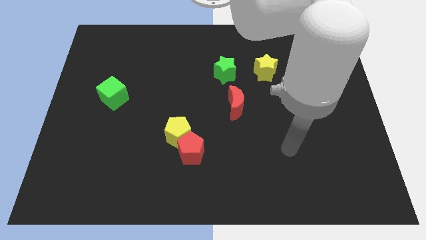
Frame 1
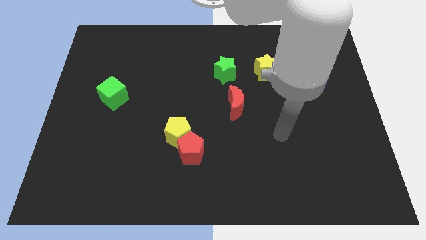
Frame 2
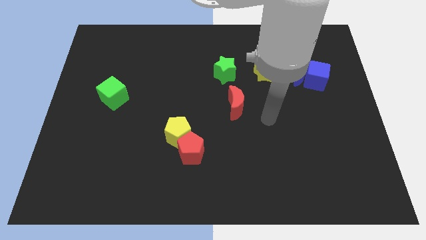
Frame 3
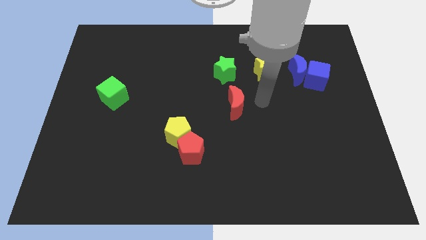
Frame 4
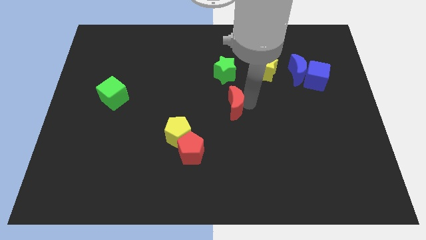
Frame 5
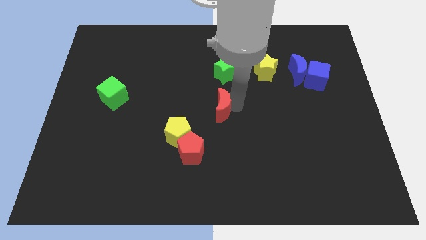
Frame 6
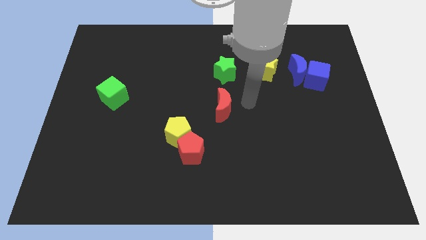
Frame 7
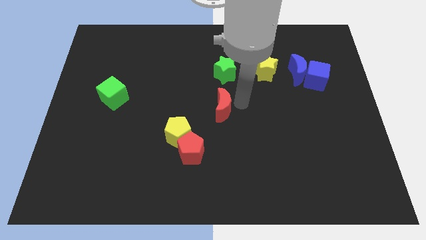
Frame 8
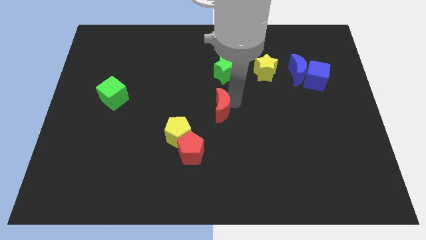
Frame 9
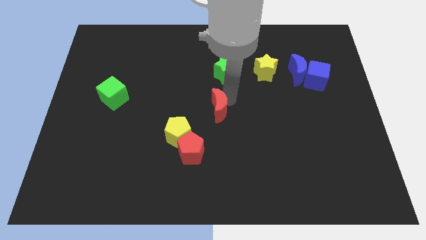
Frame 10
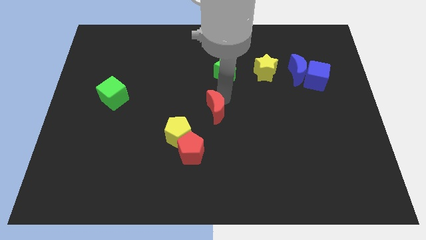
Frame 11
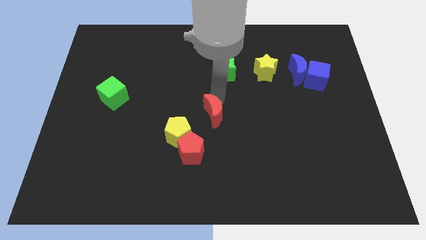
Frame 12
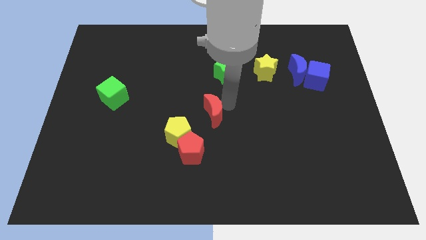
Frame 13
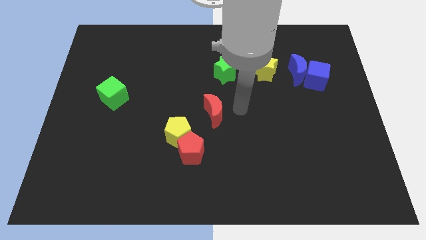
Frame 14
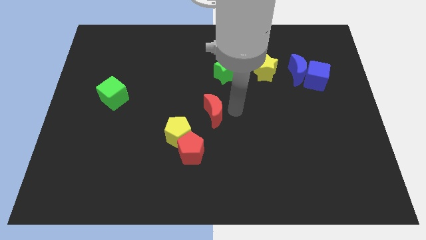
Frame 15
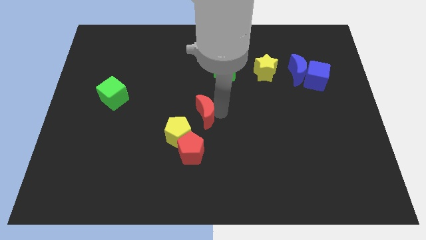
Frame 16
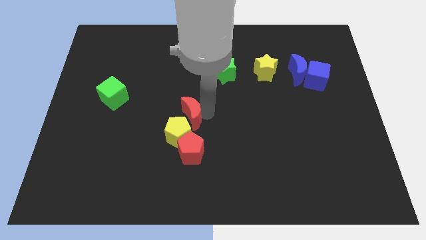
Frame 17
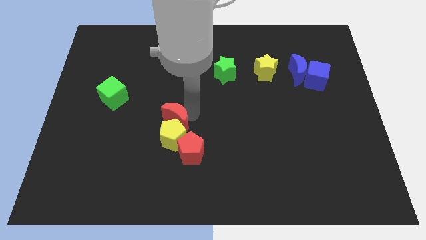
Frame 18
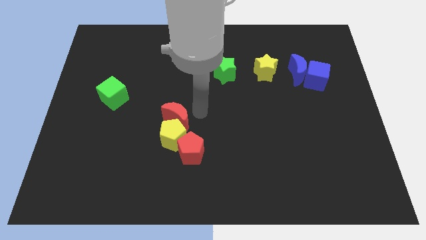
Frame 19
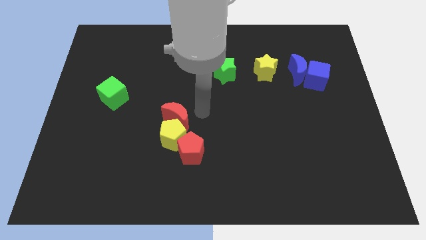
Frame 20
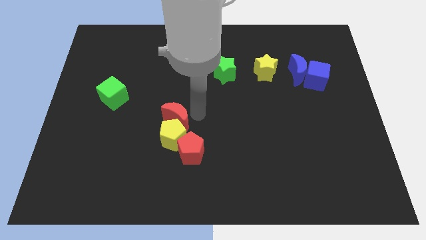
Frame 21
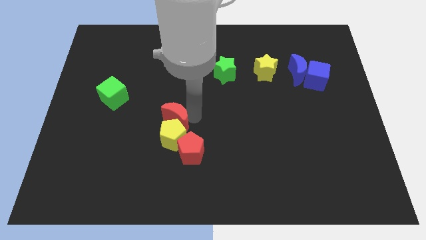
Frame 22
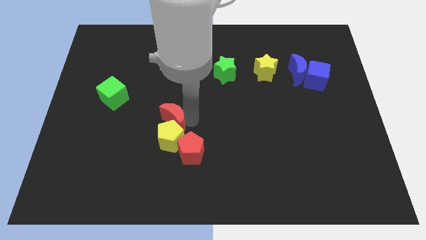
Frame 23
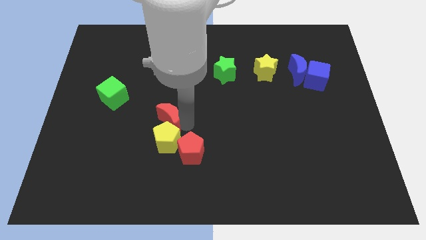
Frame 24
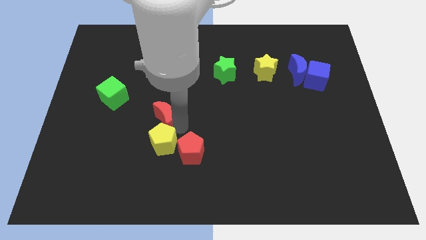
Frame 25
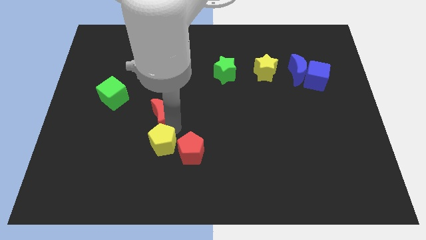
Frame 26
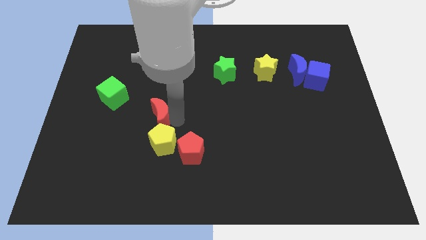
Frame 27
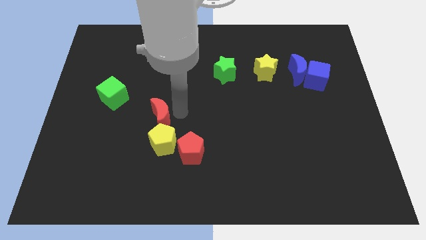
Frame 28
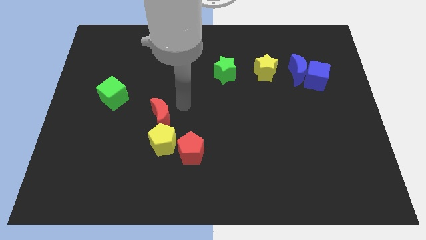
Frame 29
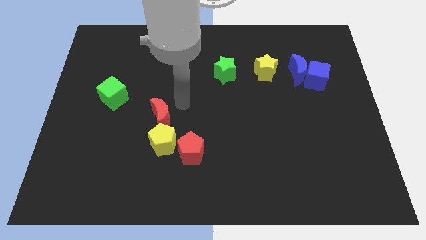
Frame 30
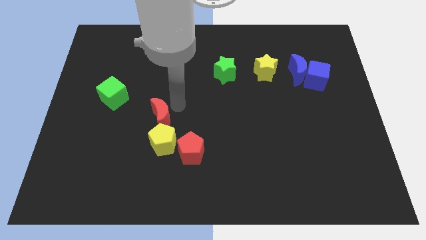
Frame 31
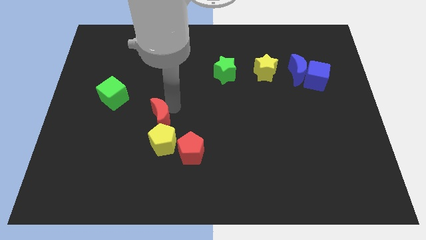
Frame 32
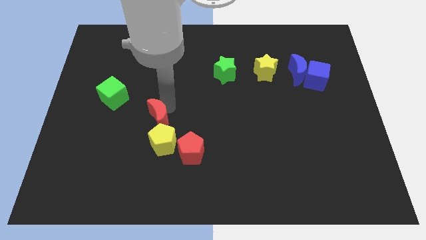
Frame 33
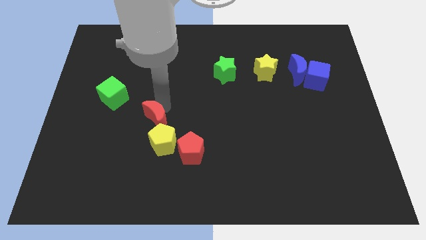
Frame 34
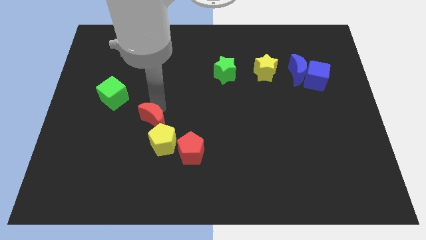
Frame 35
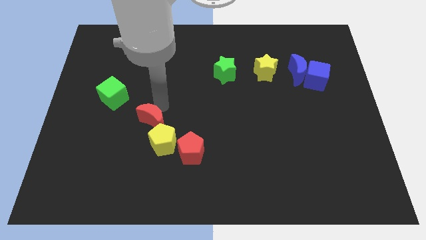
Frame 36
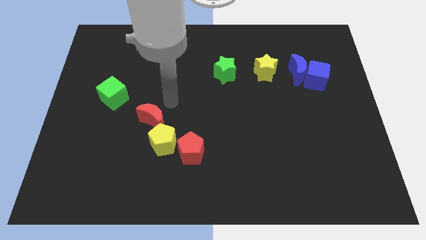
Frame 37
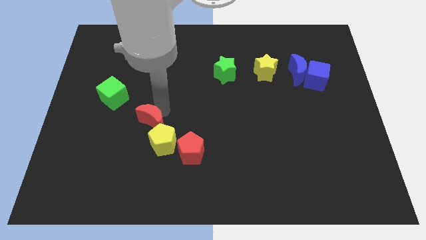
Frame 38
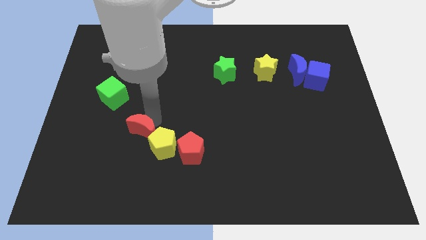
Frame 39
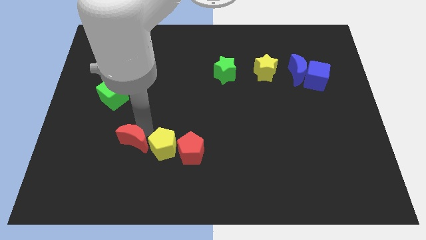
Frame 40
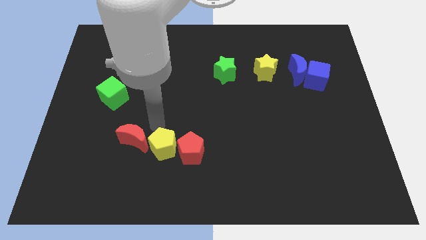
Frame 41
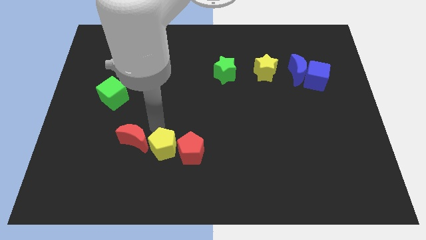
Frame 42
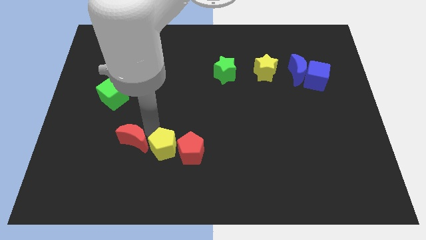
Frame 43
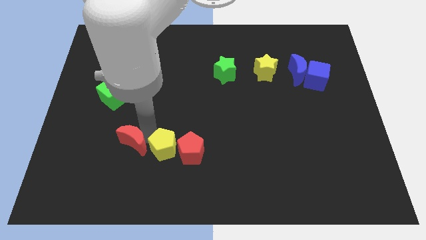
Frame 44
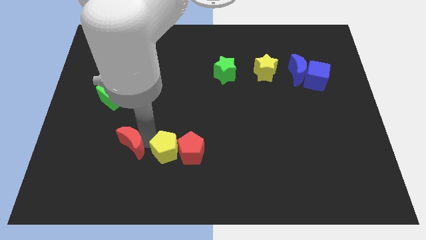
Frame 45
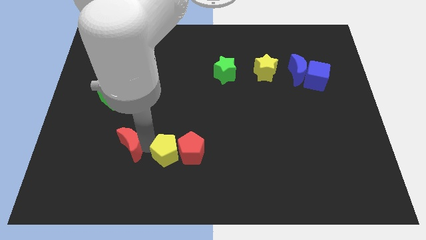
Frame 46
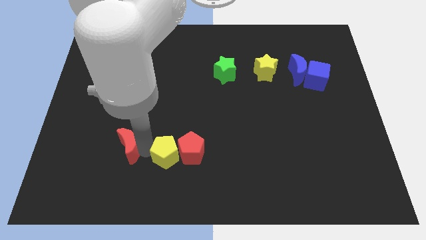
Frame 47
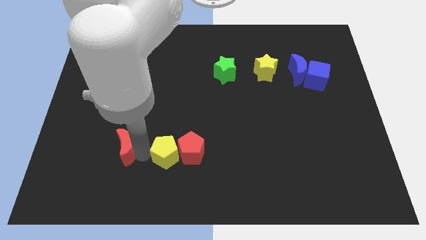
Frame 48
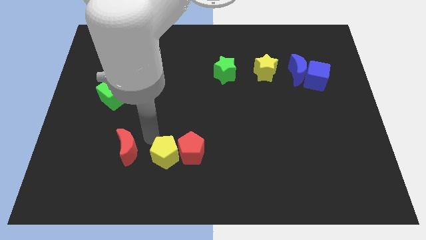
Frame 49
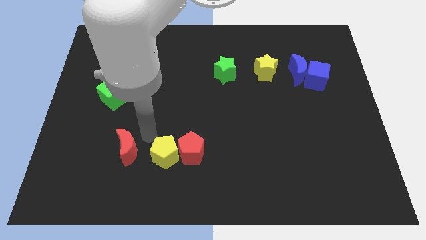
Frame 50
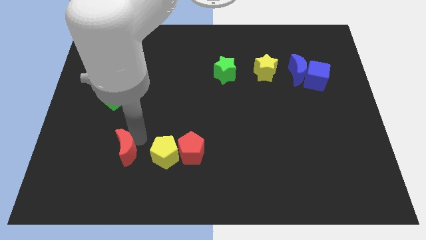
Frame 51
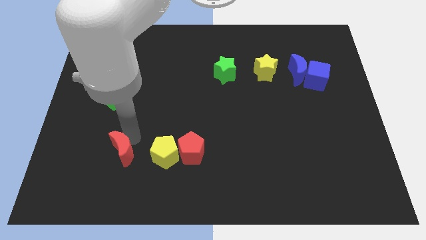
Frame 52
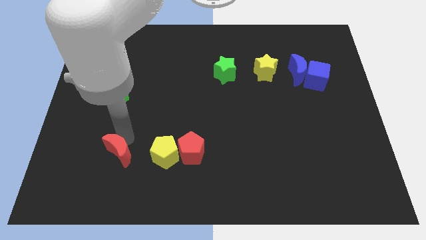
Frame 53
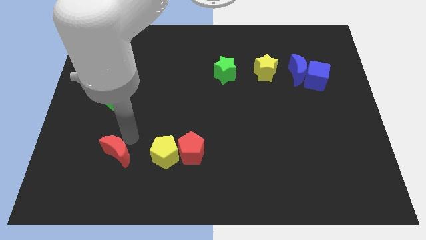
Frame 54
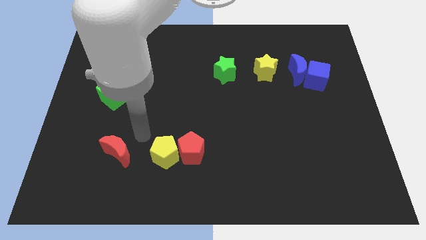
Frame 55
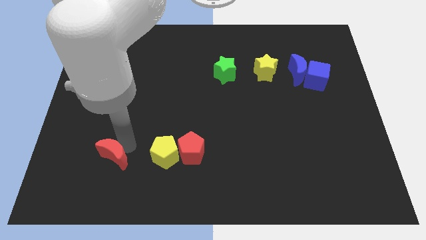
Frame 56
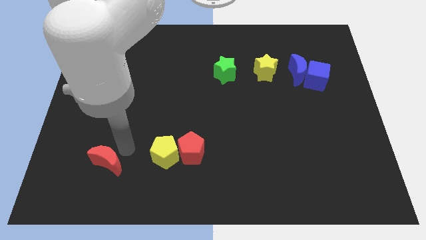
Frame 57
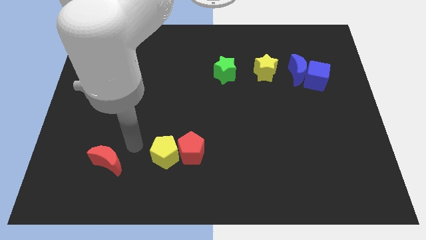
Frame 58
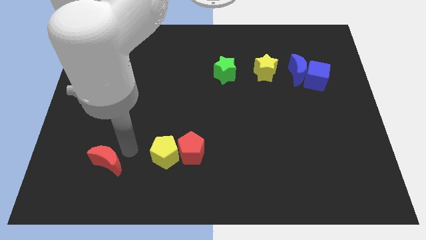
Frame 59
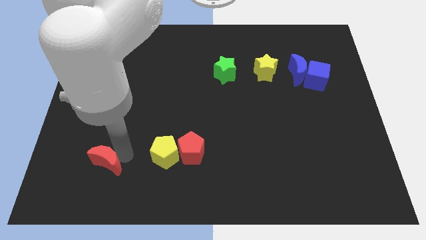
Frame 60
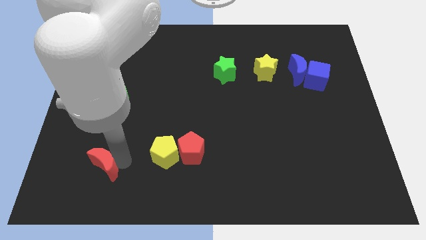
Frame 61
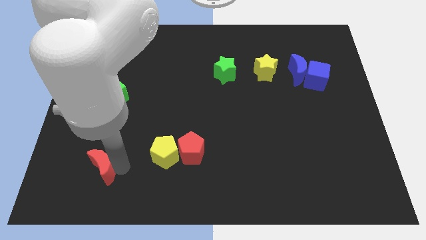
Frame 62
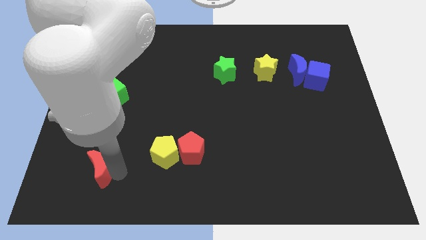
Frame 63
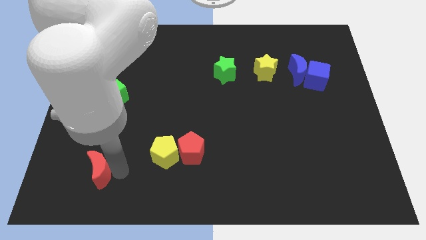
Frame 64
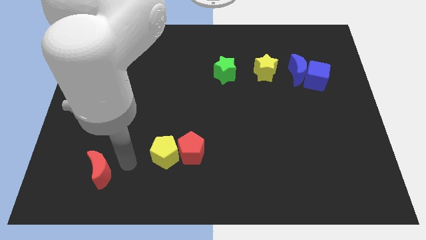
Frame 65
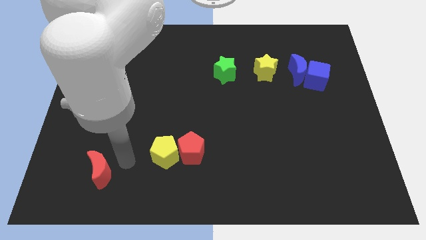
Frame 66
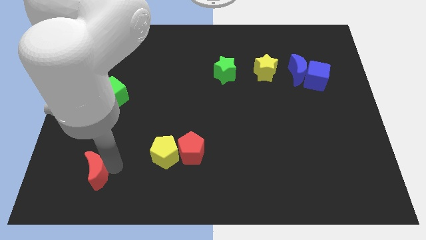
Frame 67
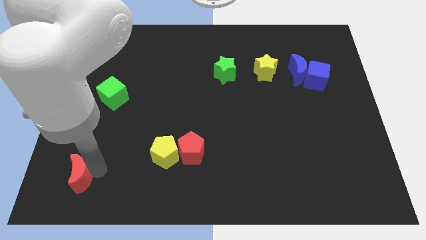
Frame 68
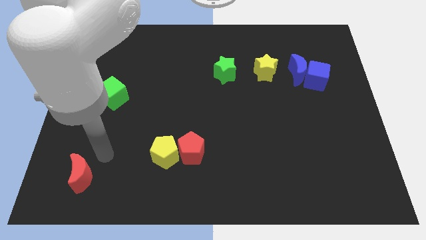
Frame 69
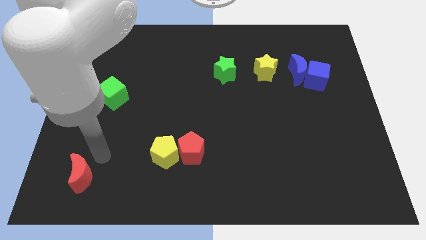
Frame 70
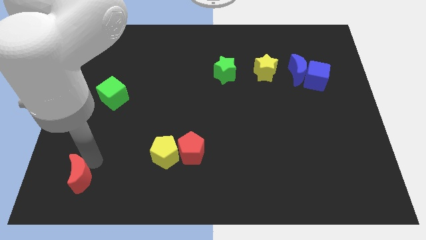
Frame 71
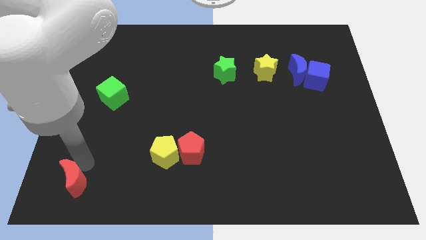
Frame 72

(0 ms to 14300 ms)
move the red moon to the bottom left corner
